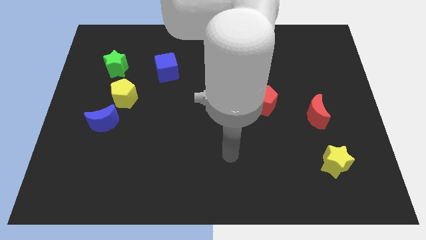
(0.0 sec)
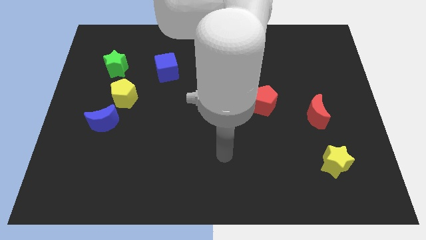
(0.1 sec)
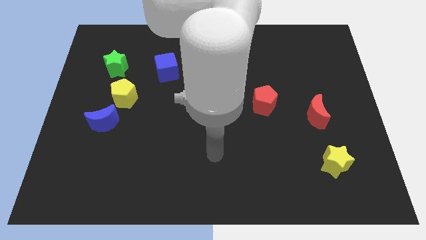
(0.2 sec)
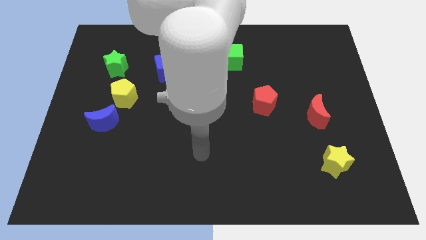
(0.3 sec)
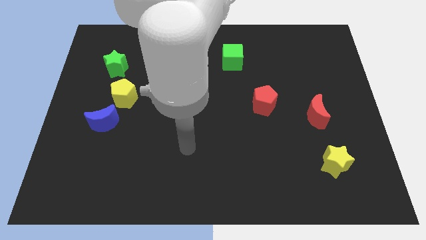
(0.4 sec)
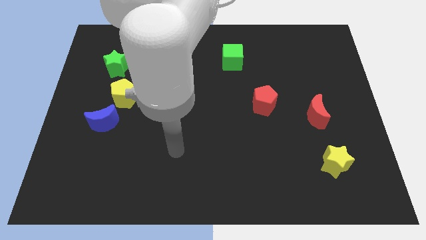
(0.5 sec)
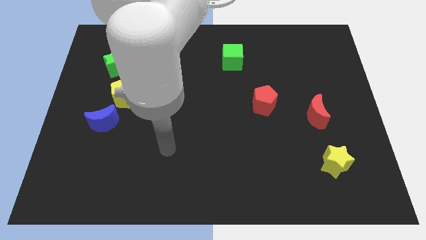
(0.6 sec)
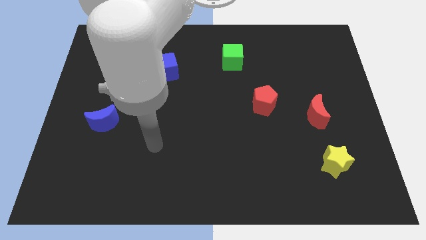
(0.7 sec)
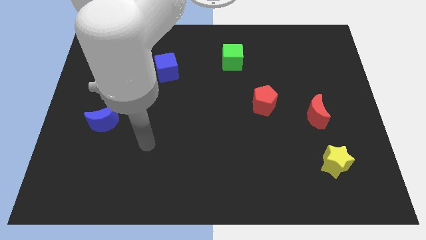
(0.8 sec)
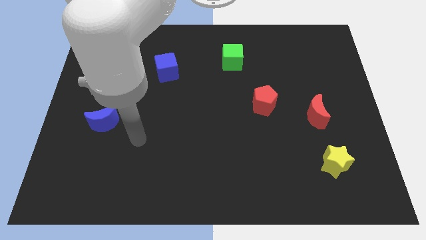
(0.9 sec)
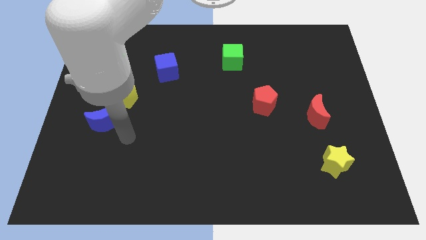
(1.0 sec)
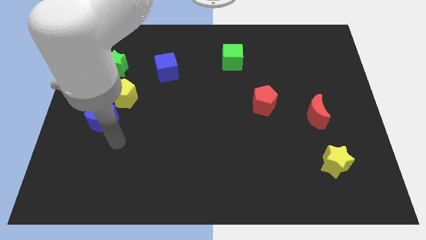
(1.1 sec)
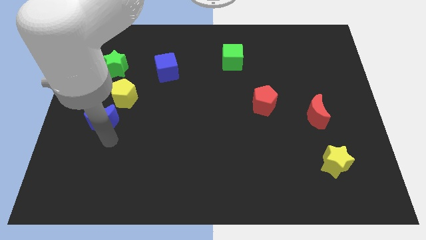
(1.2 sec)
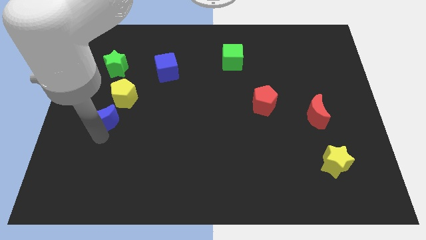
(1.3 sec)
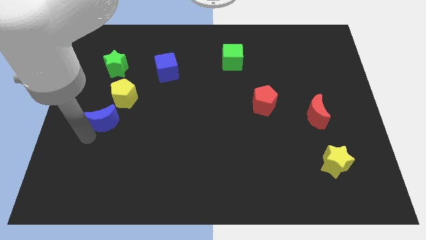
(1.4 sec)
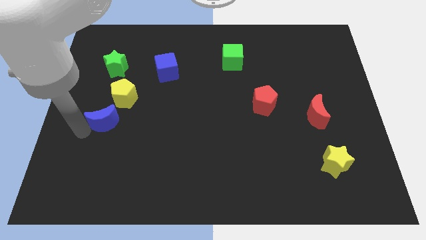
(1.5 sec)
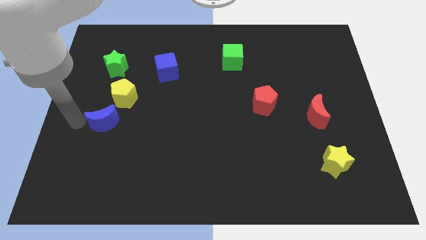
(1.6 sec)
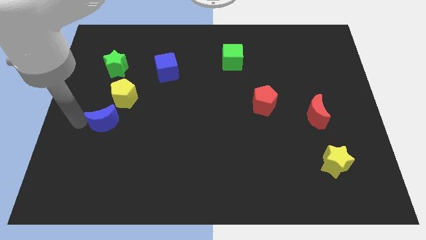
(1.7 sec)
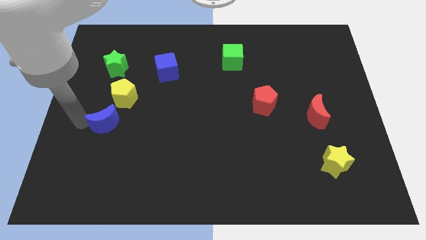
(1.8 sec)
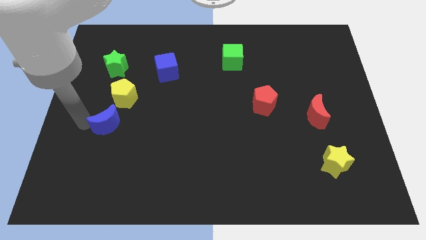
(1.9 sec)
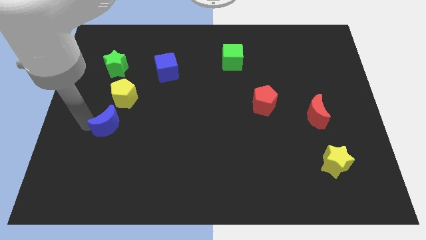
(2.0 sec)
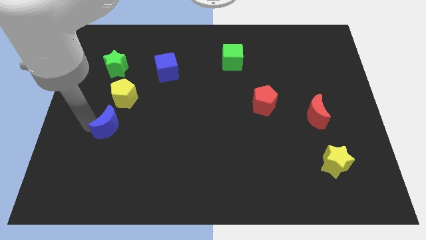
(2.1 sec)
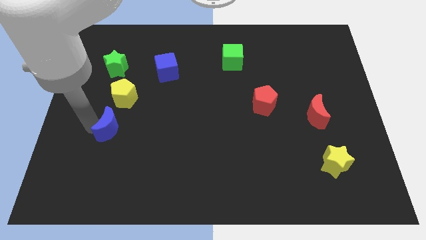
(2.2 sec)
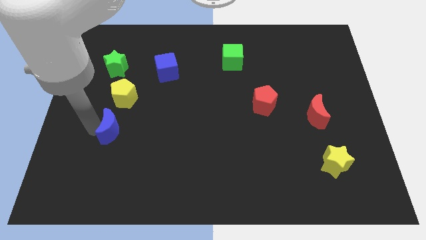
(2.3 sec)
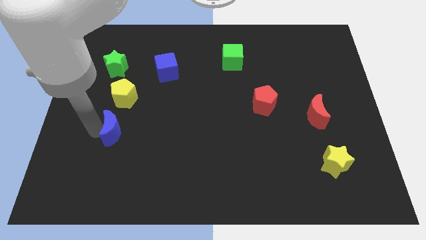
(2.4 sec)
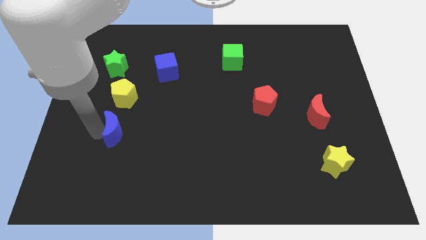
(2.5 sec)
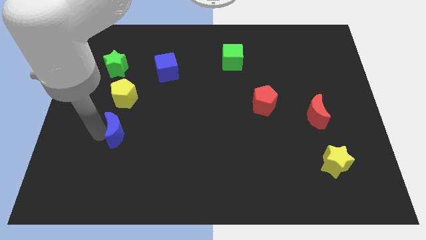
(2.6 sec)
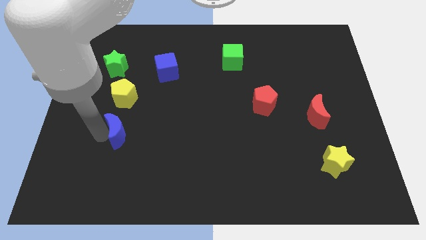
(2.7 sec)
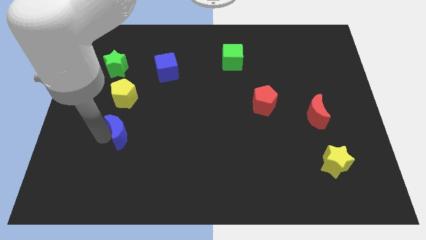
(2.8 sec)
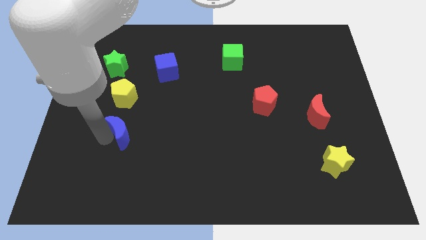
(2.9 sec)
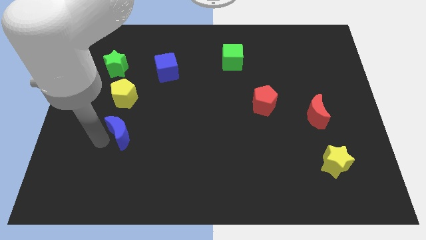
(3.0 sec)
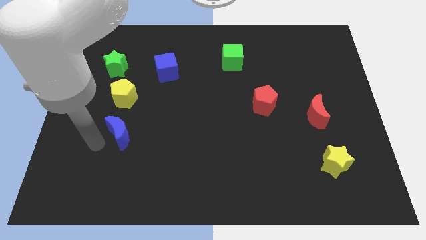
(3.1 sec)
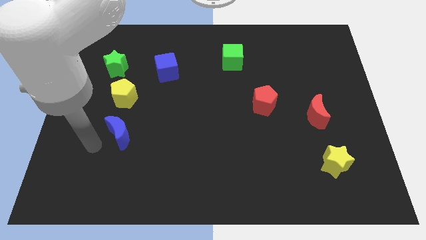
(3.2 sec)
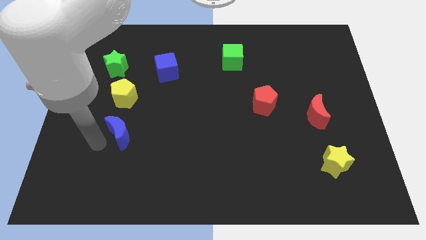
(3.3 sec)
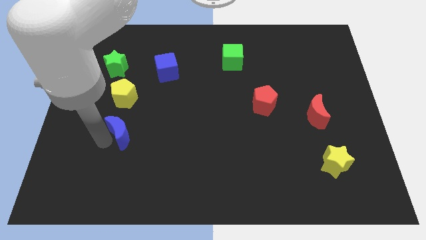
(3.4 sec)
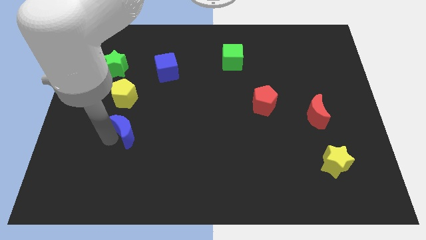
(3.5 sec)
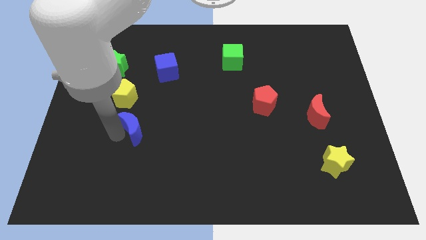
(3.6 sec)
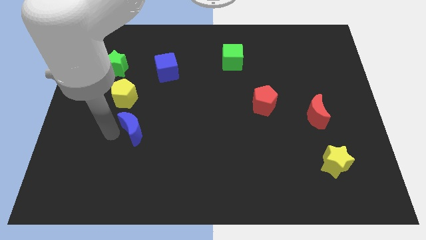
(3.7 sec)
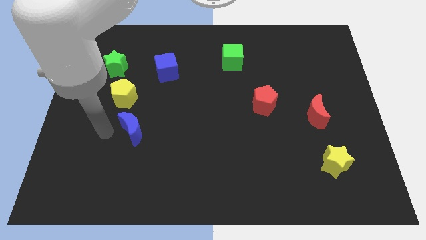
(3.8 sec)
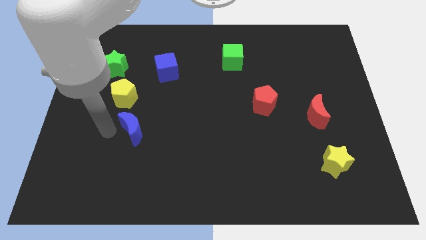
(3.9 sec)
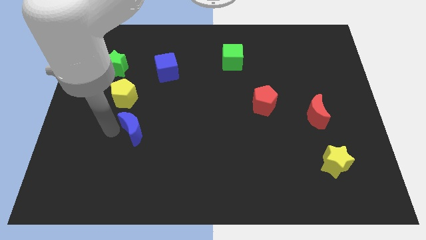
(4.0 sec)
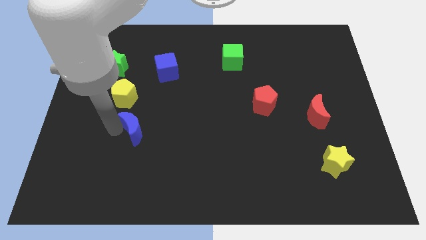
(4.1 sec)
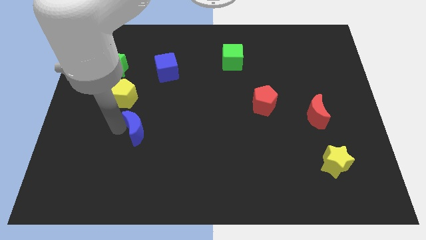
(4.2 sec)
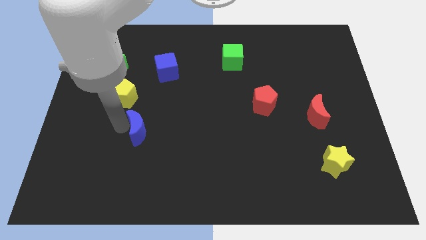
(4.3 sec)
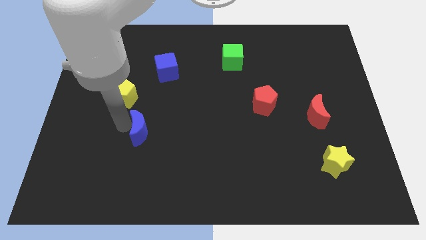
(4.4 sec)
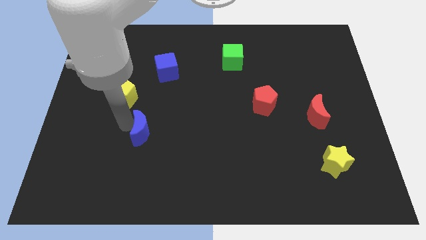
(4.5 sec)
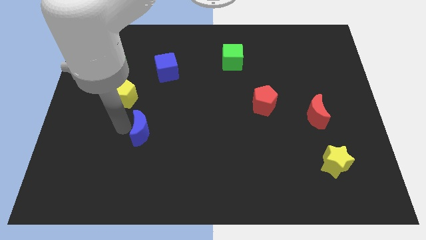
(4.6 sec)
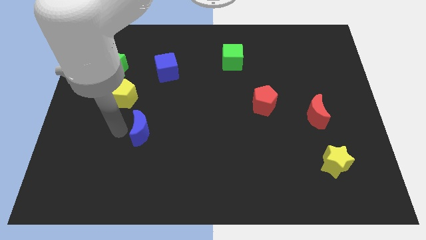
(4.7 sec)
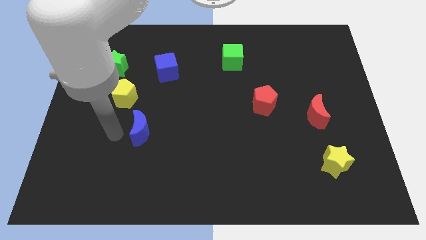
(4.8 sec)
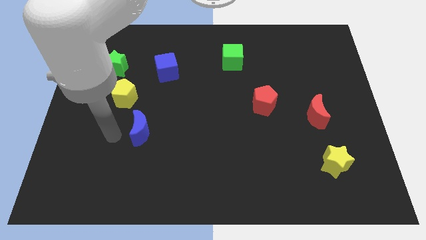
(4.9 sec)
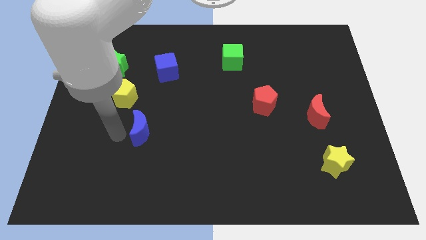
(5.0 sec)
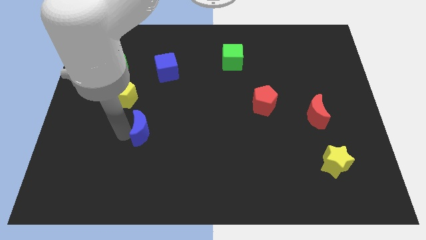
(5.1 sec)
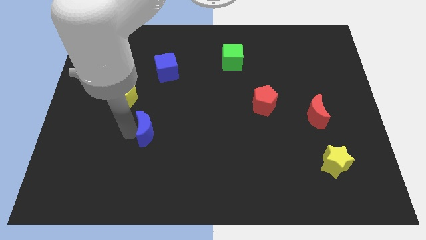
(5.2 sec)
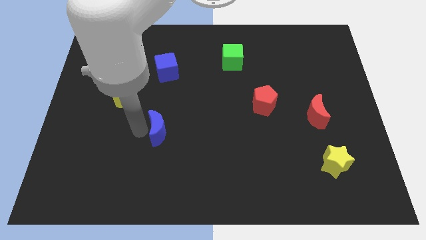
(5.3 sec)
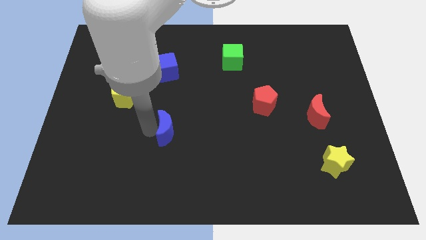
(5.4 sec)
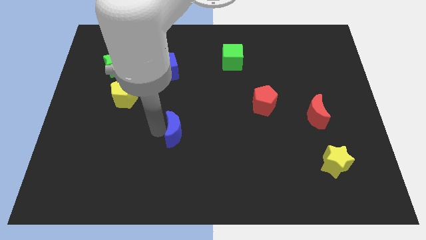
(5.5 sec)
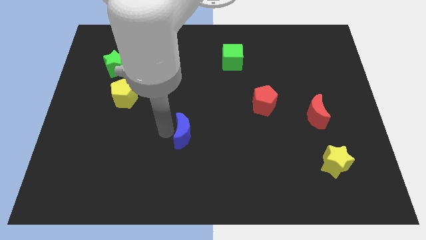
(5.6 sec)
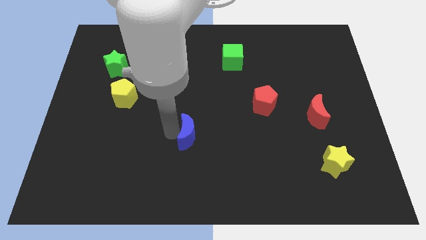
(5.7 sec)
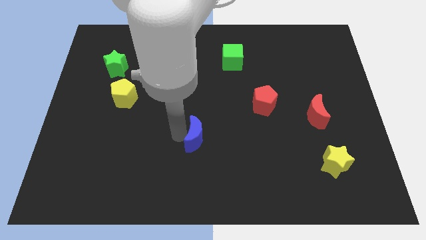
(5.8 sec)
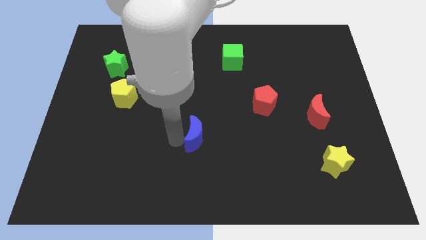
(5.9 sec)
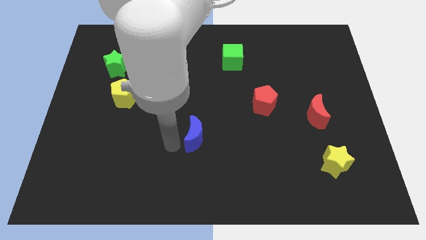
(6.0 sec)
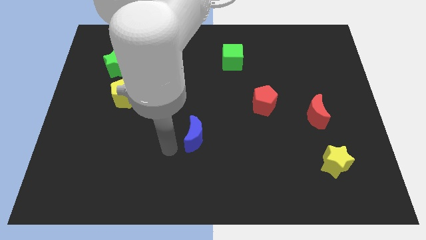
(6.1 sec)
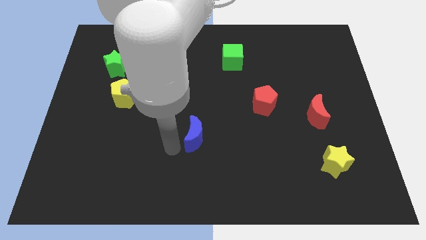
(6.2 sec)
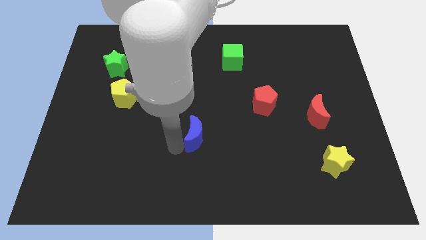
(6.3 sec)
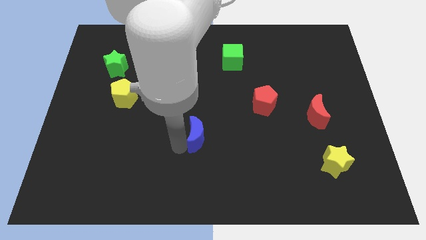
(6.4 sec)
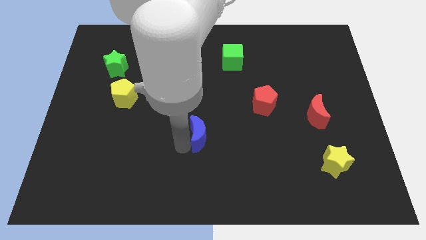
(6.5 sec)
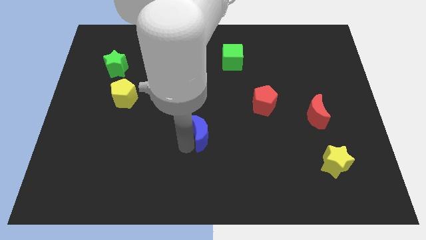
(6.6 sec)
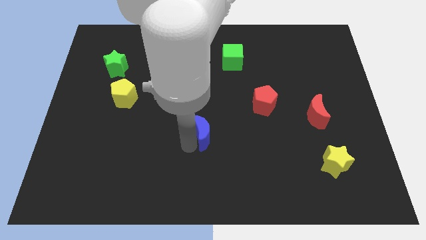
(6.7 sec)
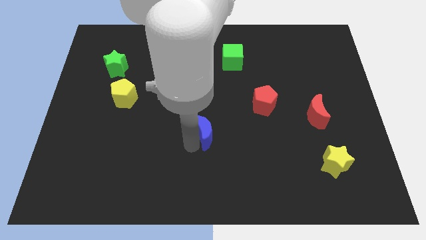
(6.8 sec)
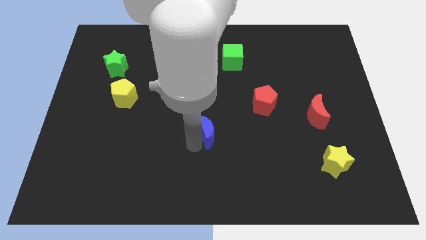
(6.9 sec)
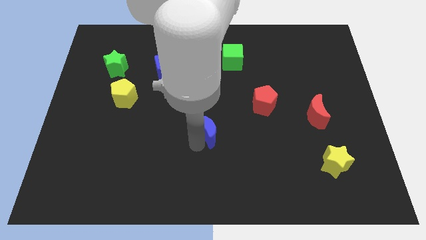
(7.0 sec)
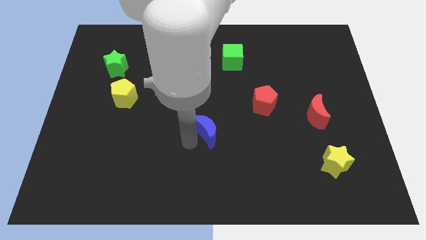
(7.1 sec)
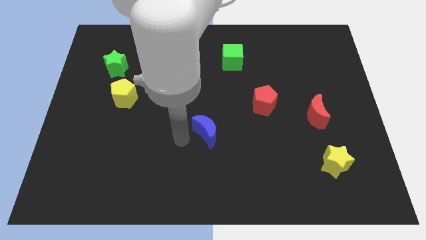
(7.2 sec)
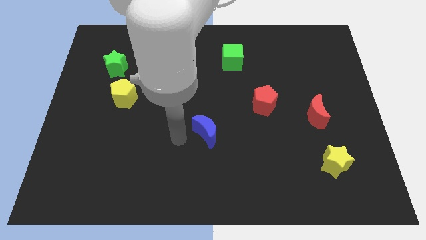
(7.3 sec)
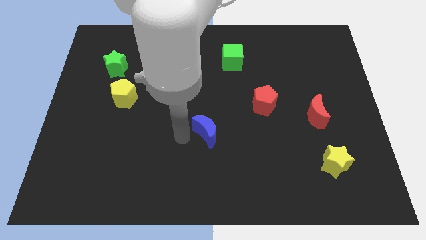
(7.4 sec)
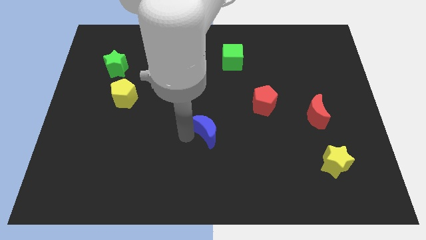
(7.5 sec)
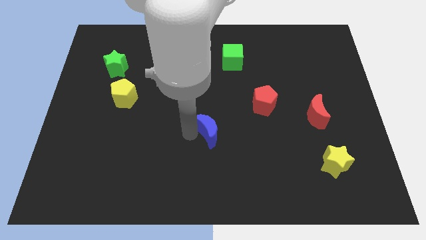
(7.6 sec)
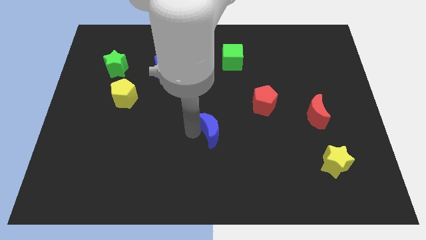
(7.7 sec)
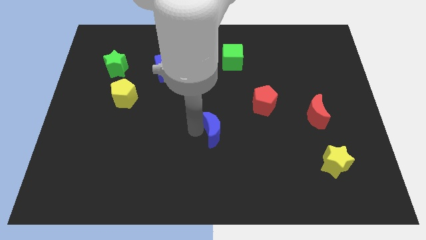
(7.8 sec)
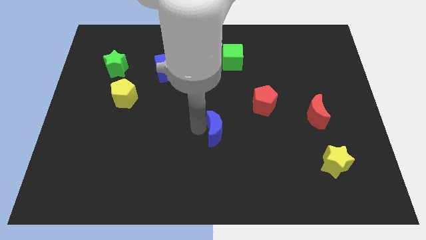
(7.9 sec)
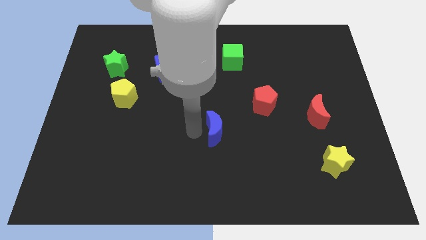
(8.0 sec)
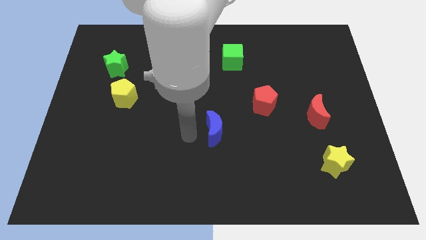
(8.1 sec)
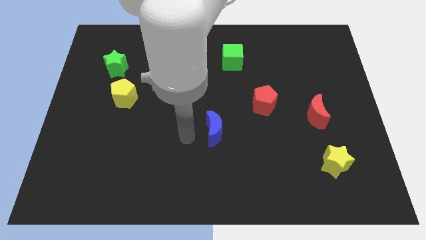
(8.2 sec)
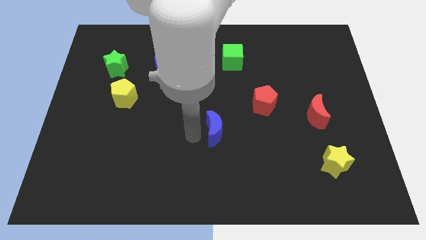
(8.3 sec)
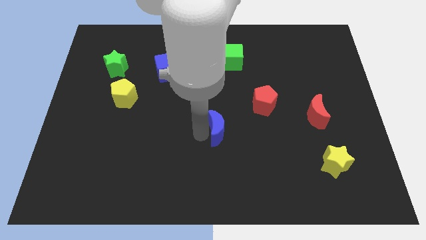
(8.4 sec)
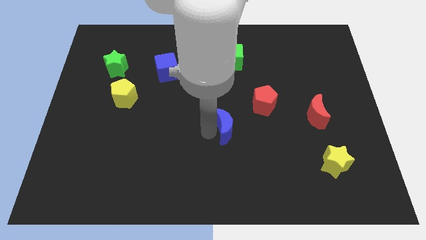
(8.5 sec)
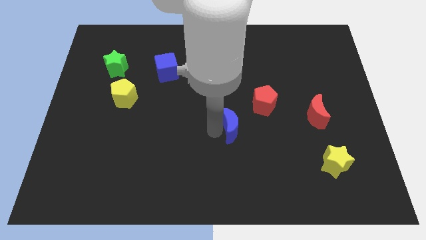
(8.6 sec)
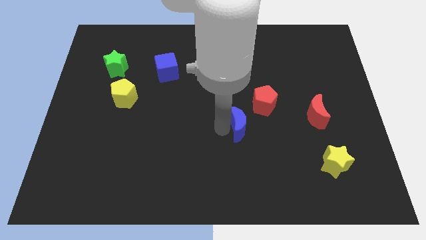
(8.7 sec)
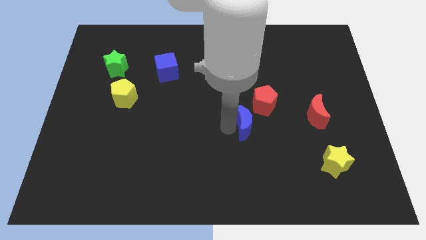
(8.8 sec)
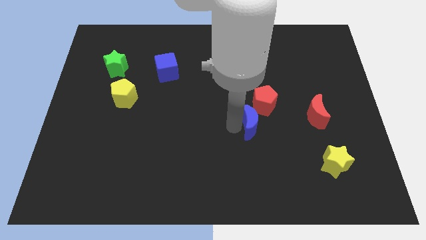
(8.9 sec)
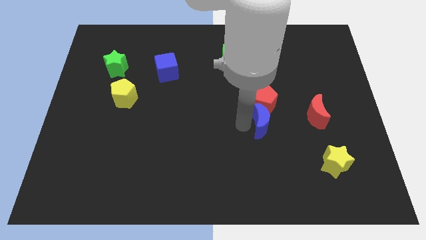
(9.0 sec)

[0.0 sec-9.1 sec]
push the blue moon to the bottom right of the red pentagon
